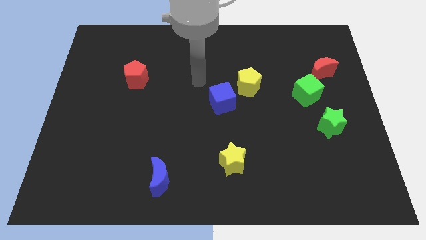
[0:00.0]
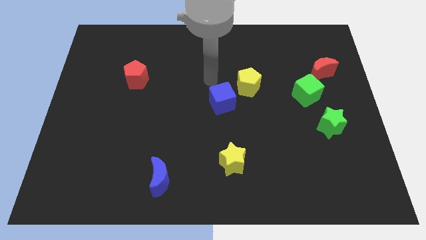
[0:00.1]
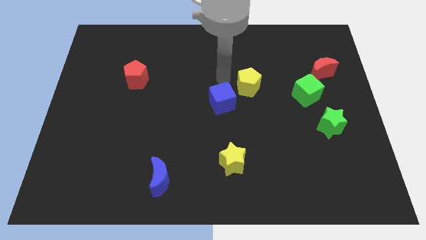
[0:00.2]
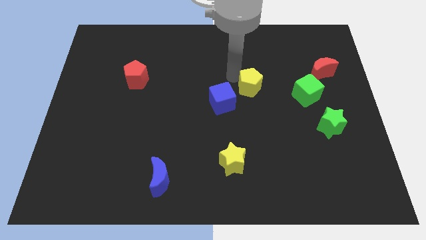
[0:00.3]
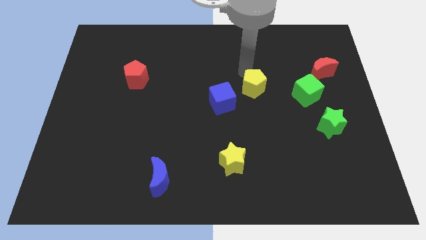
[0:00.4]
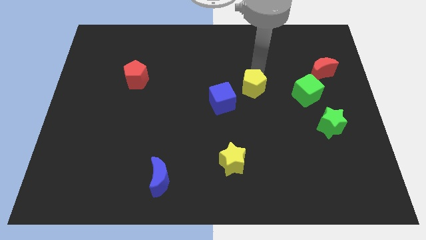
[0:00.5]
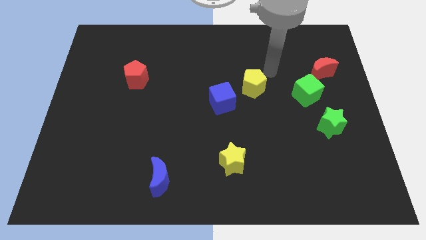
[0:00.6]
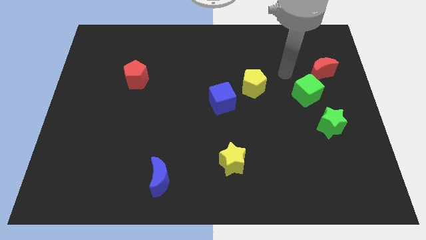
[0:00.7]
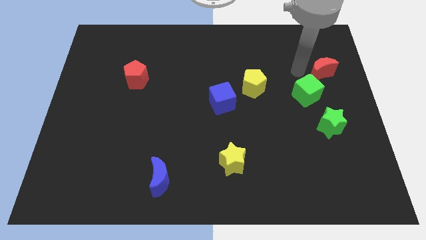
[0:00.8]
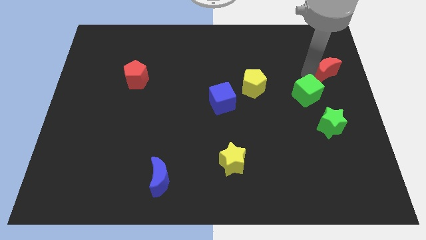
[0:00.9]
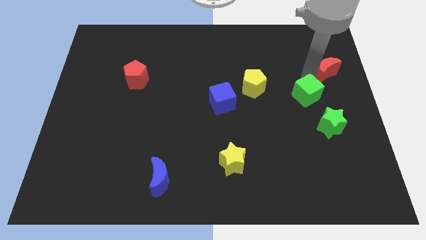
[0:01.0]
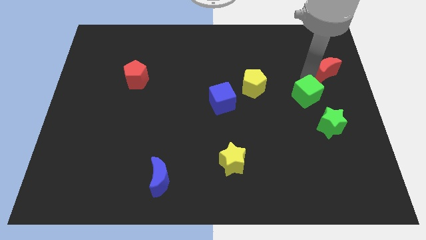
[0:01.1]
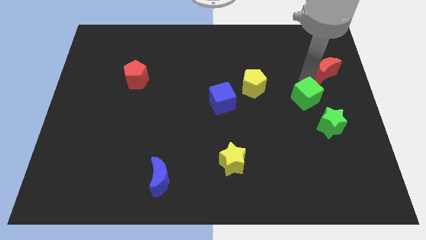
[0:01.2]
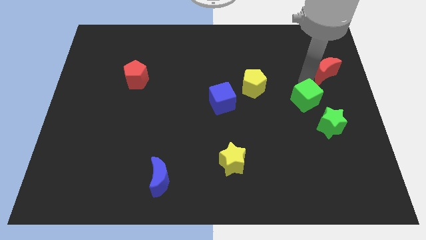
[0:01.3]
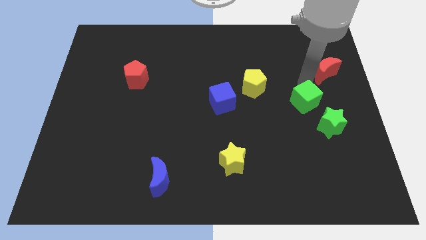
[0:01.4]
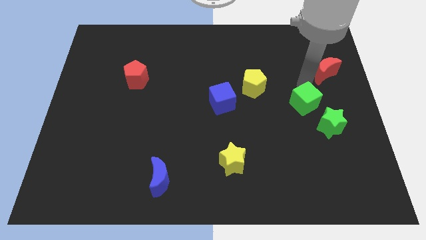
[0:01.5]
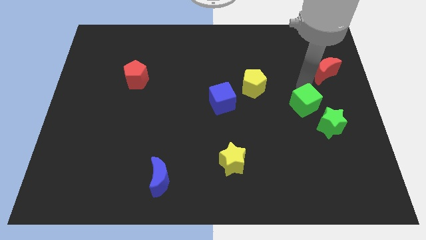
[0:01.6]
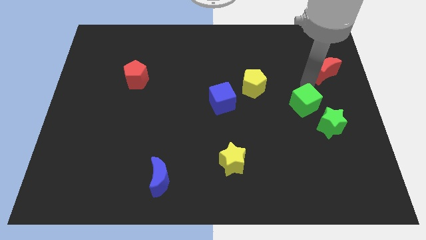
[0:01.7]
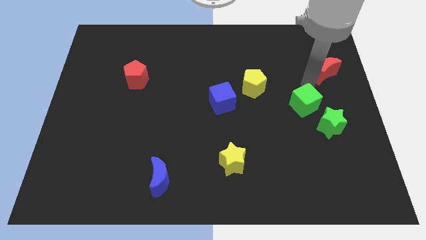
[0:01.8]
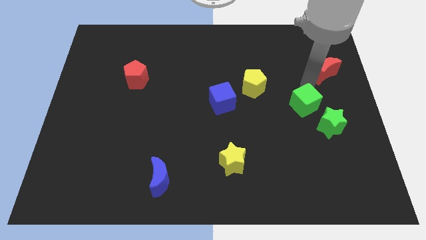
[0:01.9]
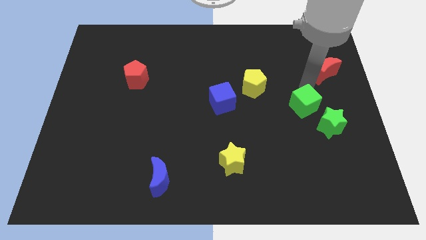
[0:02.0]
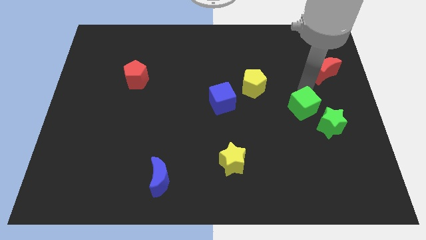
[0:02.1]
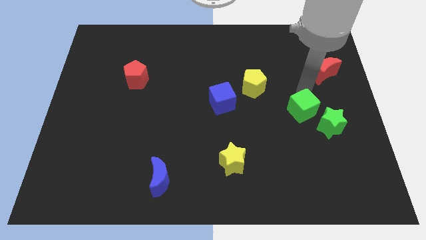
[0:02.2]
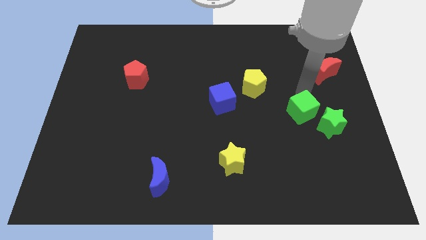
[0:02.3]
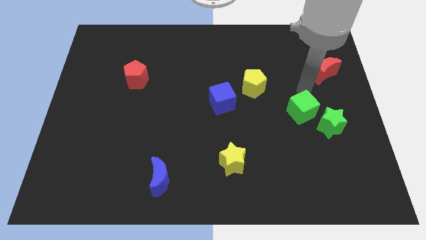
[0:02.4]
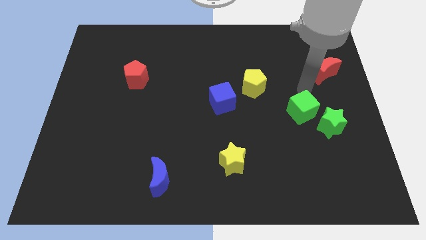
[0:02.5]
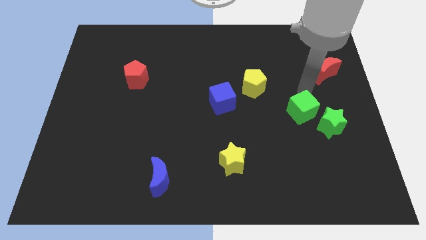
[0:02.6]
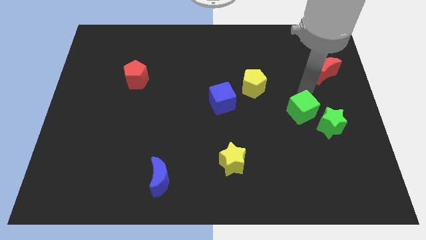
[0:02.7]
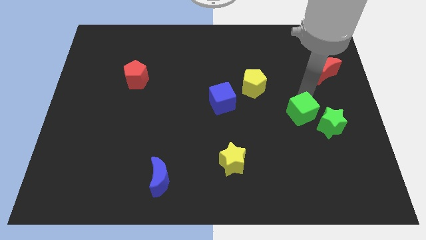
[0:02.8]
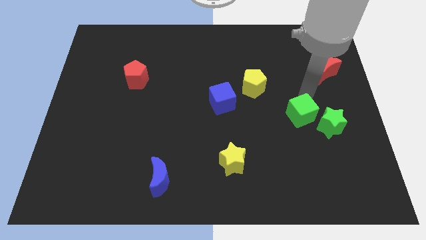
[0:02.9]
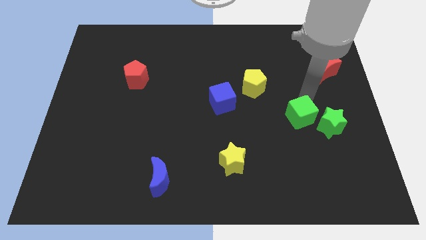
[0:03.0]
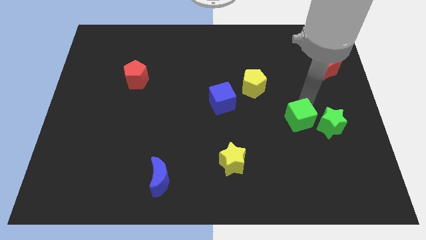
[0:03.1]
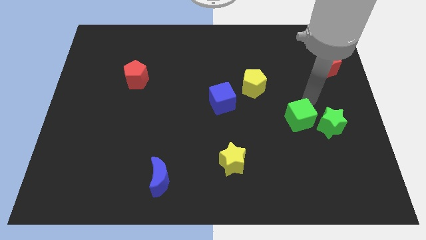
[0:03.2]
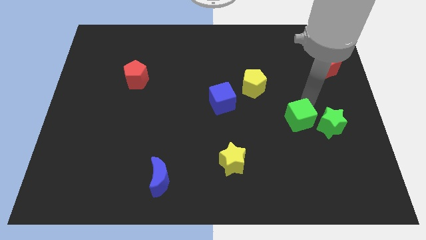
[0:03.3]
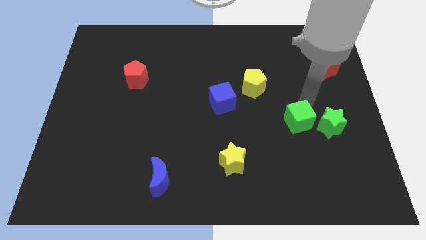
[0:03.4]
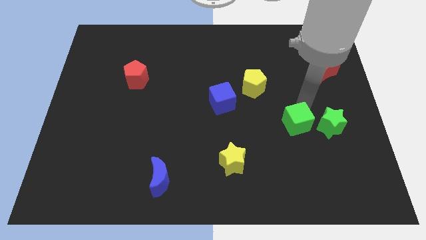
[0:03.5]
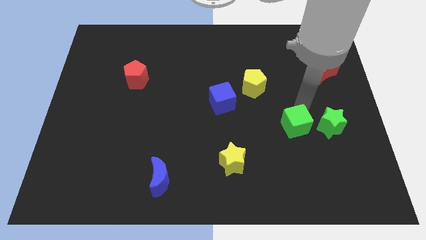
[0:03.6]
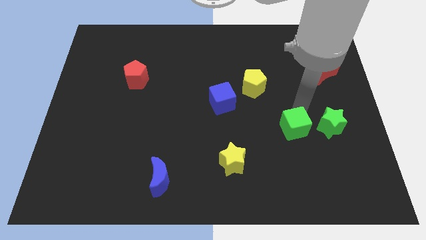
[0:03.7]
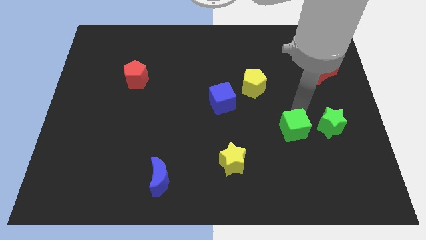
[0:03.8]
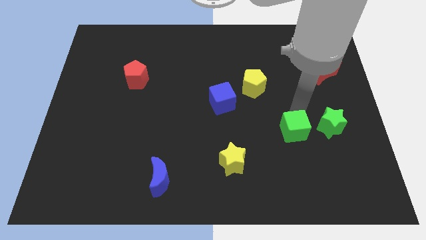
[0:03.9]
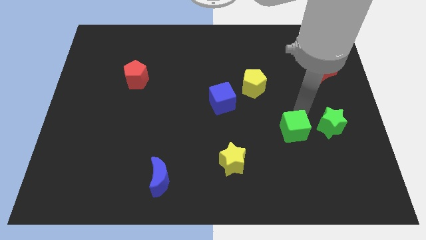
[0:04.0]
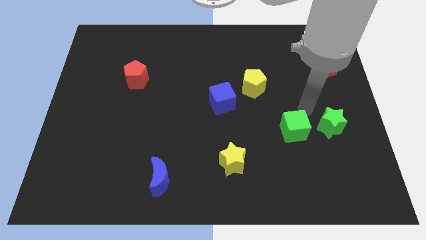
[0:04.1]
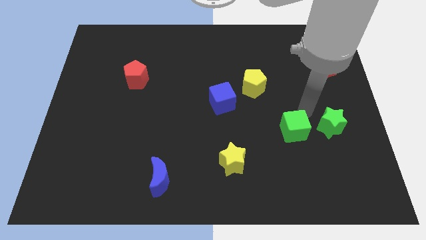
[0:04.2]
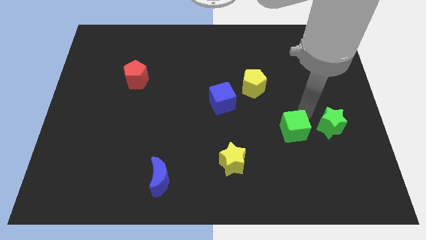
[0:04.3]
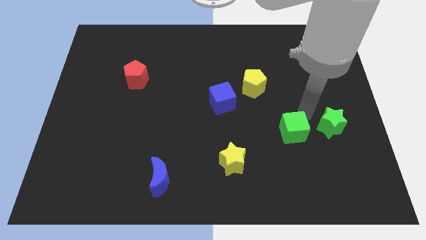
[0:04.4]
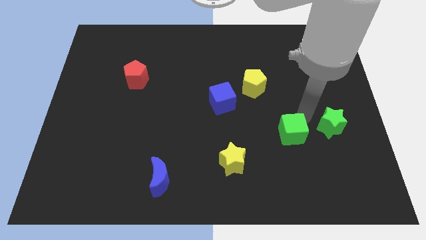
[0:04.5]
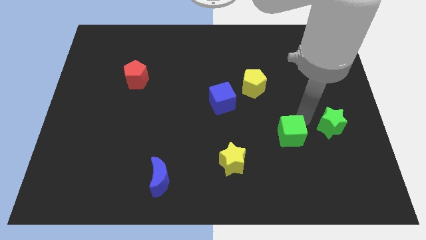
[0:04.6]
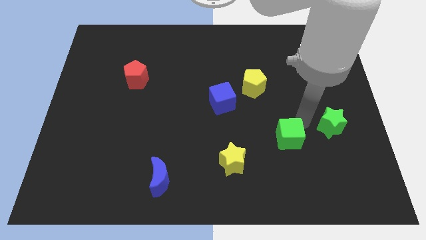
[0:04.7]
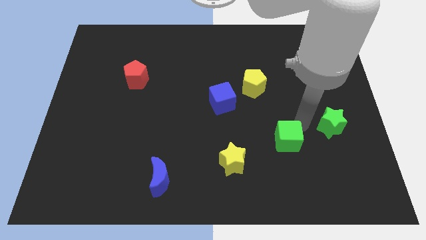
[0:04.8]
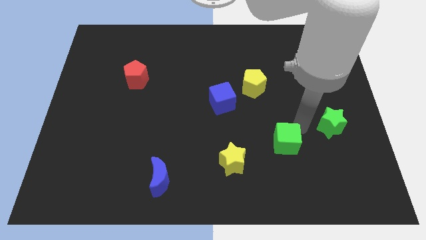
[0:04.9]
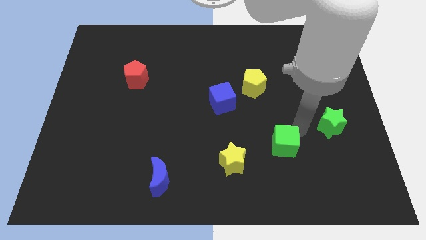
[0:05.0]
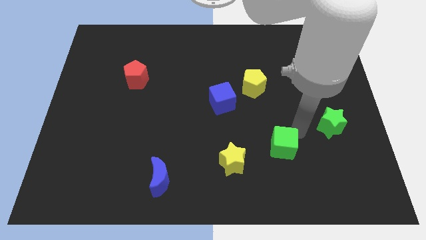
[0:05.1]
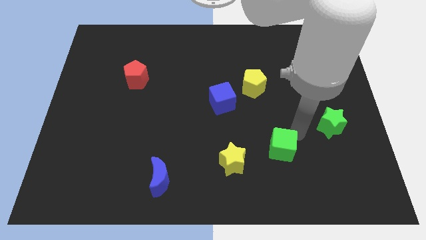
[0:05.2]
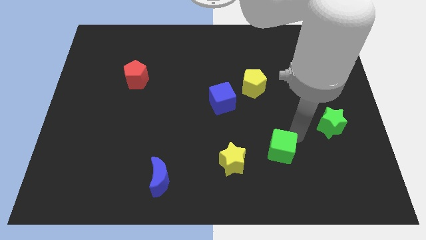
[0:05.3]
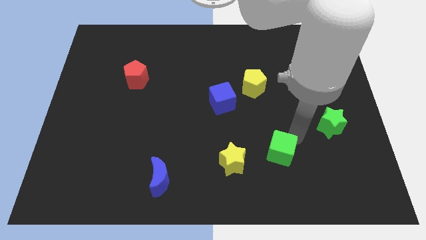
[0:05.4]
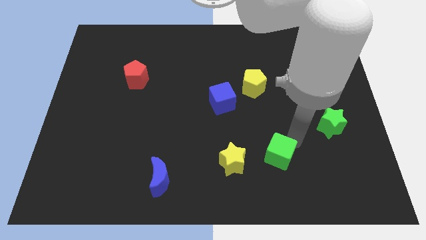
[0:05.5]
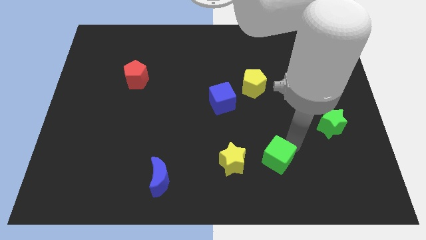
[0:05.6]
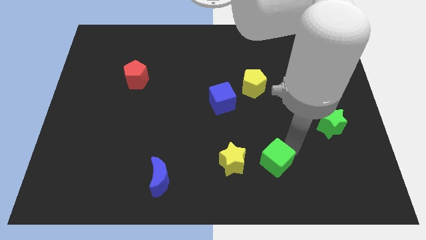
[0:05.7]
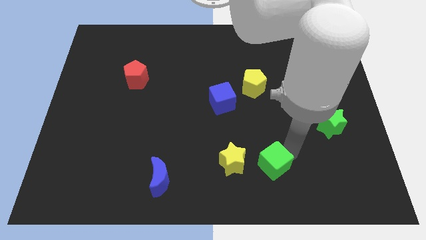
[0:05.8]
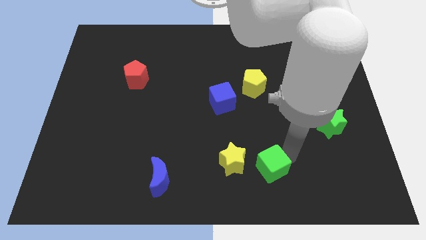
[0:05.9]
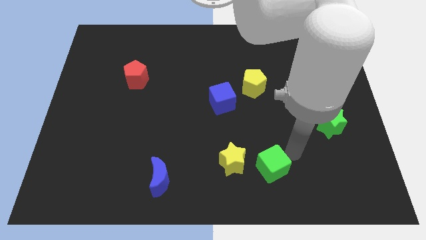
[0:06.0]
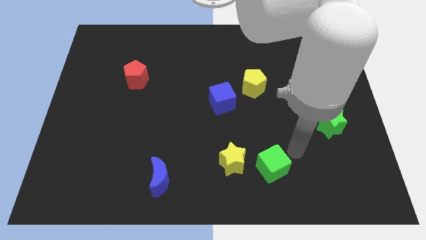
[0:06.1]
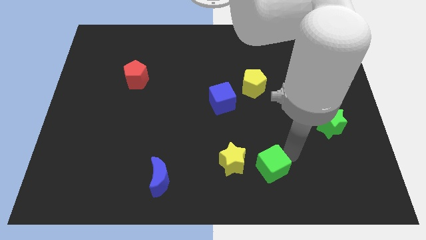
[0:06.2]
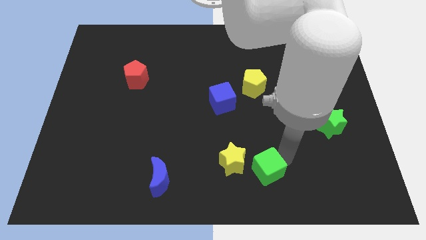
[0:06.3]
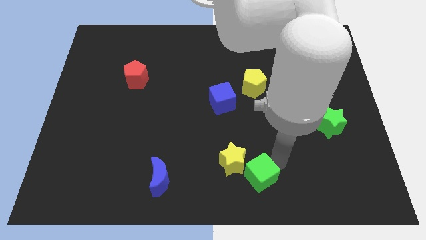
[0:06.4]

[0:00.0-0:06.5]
put the green cube to the bottom side
